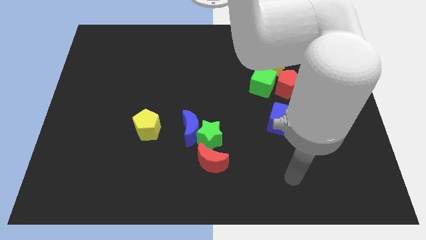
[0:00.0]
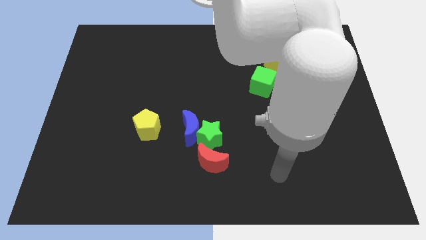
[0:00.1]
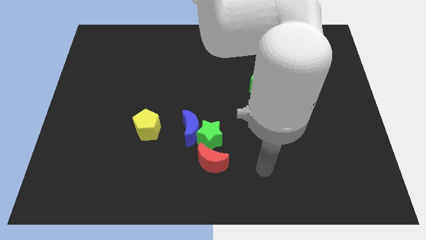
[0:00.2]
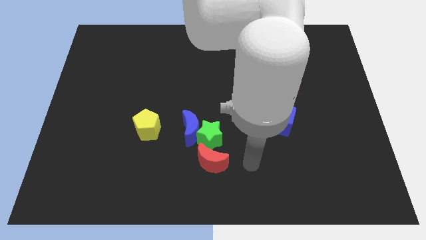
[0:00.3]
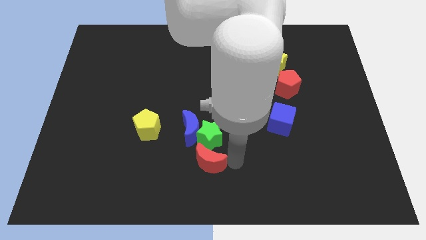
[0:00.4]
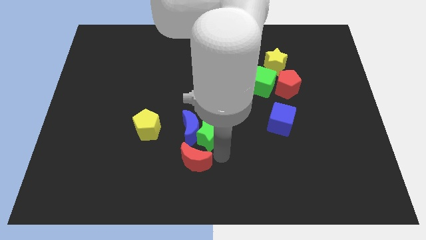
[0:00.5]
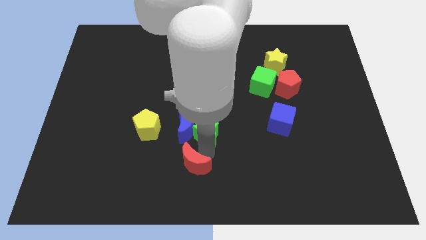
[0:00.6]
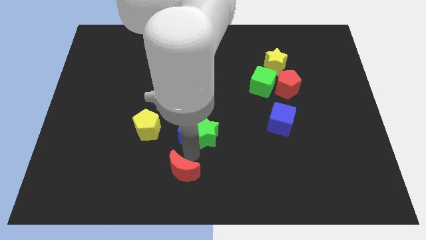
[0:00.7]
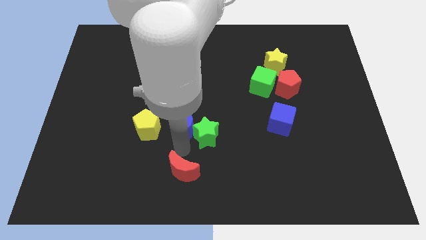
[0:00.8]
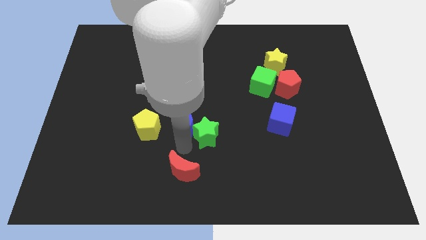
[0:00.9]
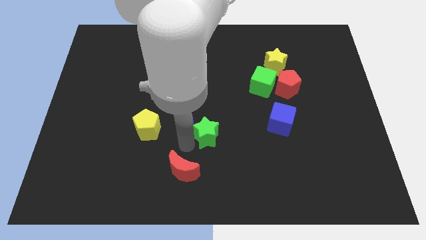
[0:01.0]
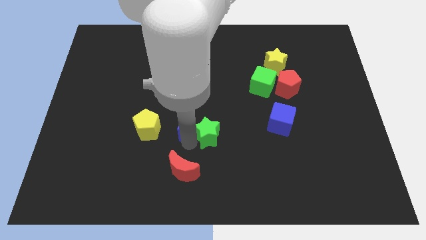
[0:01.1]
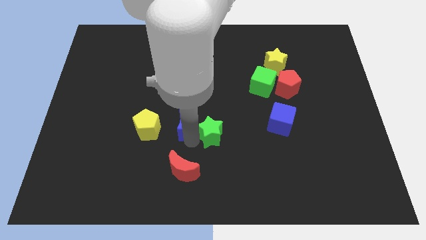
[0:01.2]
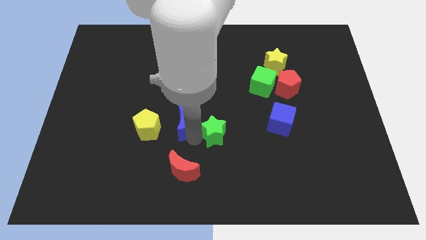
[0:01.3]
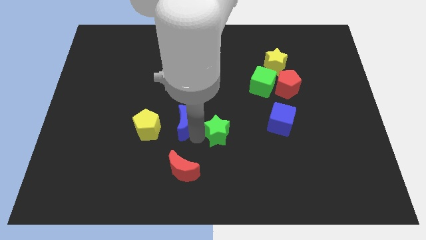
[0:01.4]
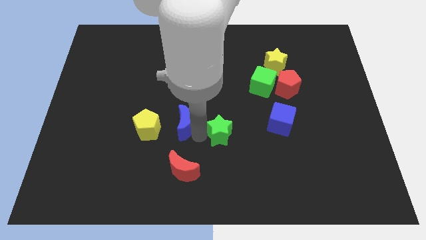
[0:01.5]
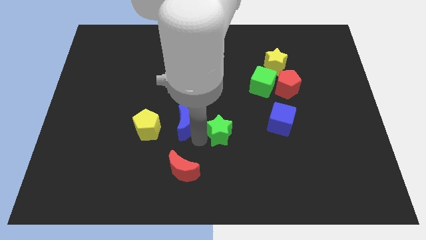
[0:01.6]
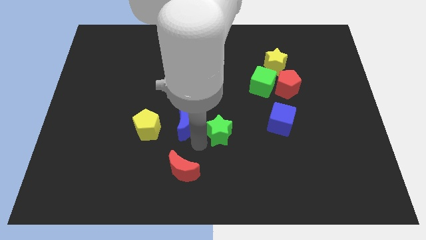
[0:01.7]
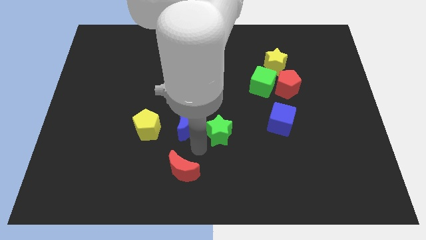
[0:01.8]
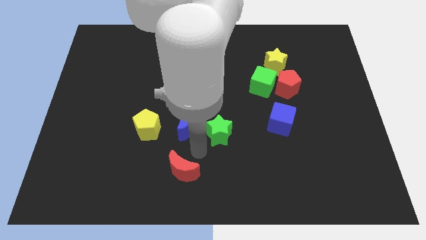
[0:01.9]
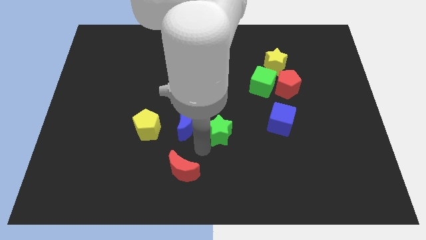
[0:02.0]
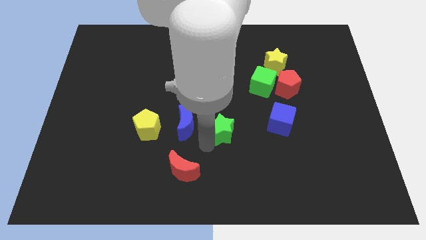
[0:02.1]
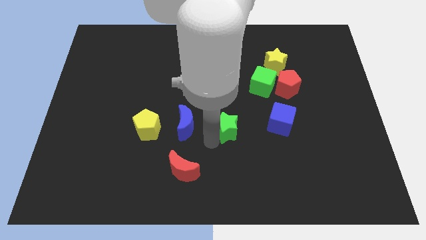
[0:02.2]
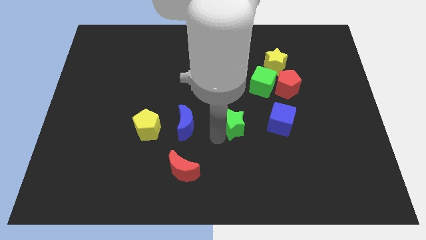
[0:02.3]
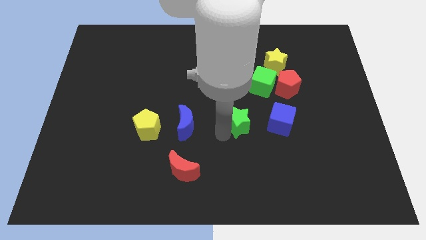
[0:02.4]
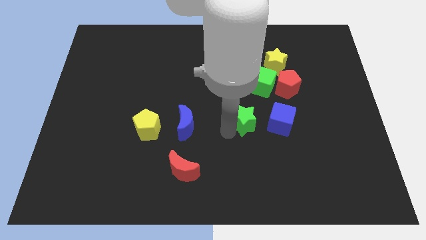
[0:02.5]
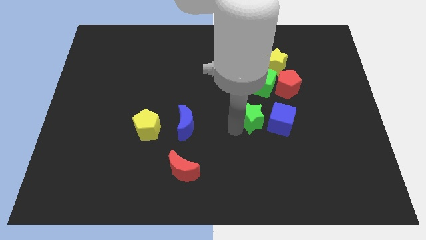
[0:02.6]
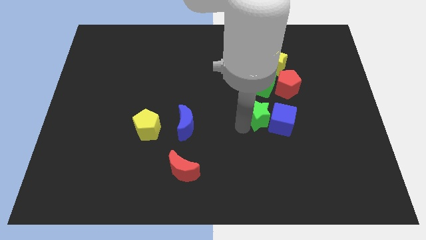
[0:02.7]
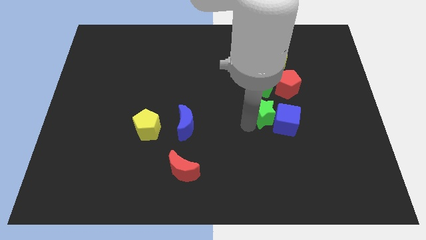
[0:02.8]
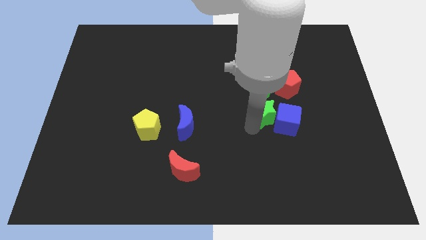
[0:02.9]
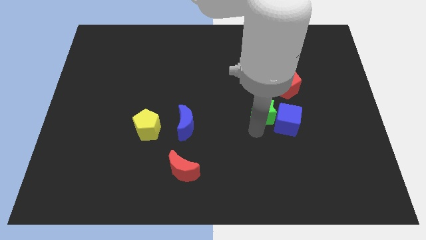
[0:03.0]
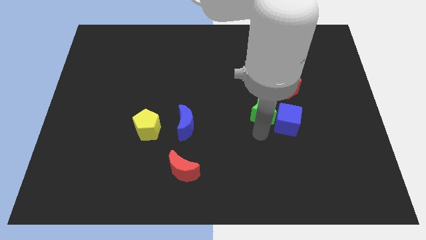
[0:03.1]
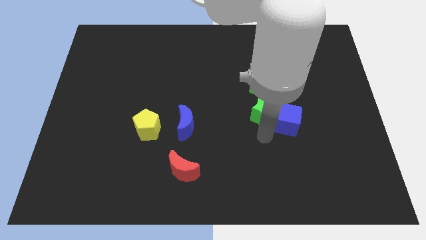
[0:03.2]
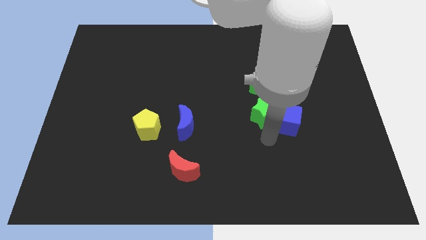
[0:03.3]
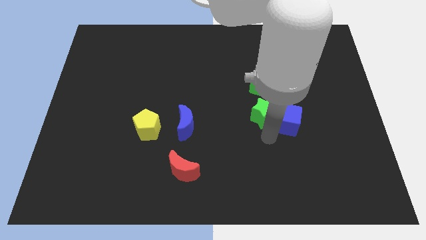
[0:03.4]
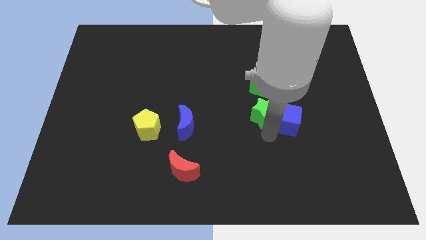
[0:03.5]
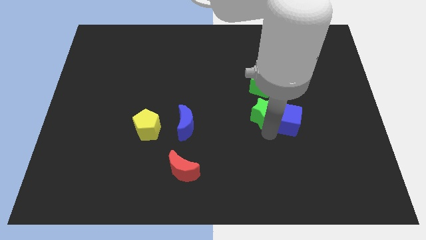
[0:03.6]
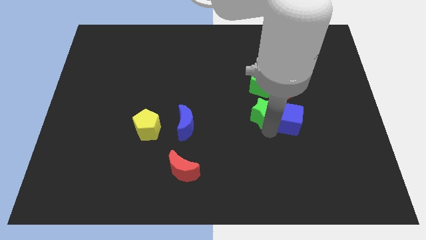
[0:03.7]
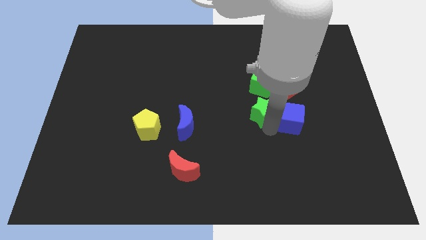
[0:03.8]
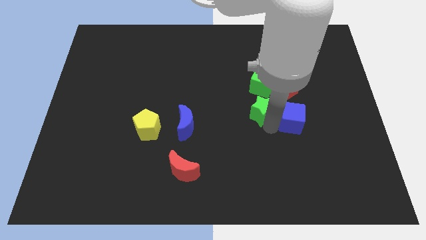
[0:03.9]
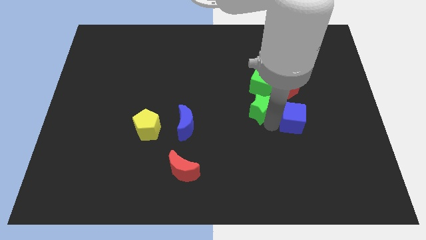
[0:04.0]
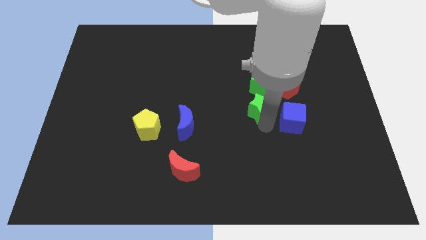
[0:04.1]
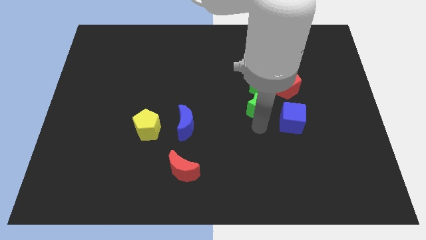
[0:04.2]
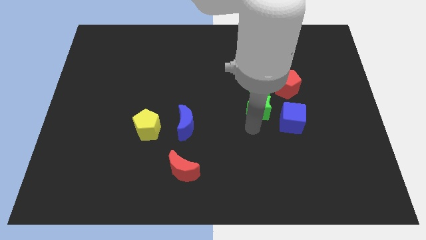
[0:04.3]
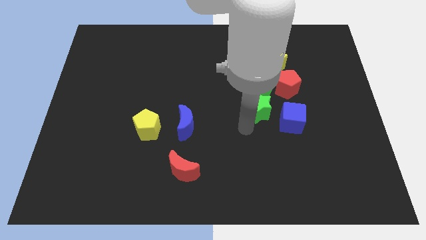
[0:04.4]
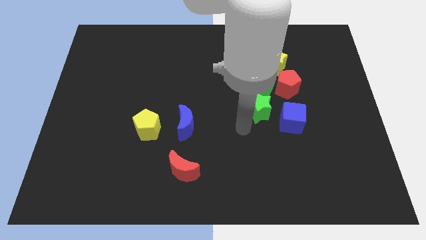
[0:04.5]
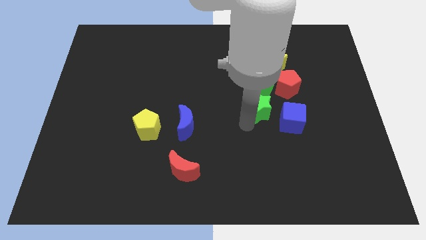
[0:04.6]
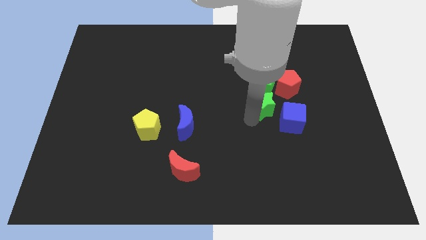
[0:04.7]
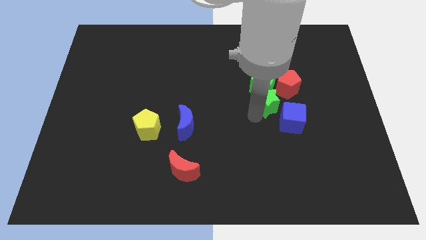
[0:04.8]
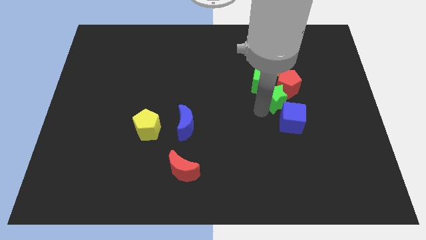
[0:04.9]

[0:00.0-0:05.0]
push the green star close to the red pentagon

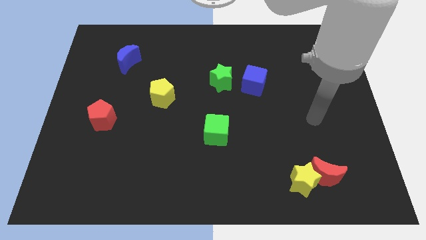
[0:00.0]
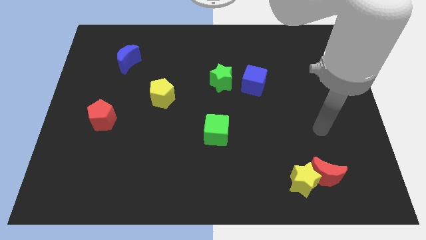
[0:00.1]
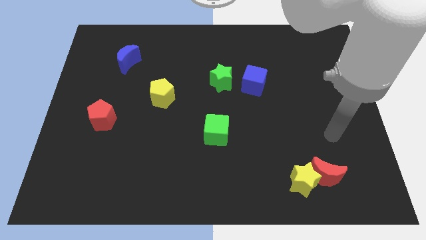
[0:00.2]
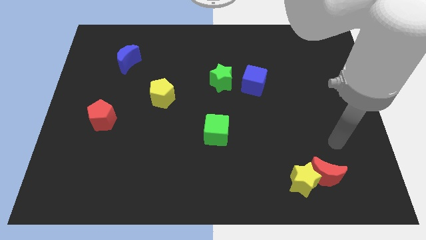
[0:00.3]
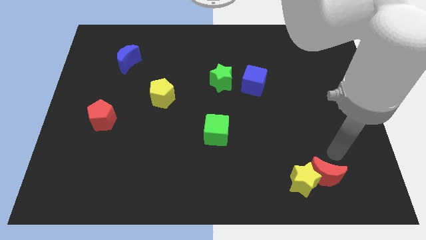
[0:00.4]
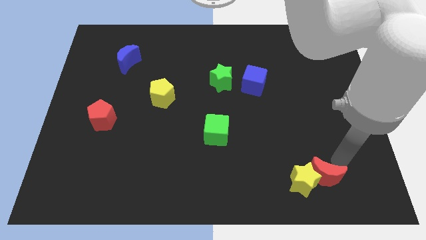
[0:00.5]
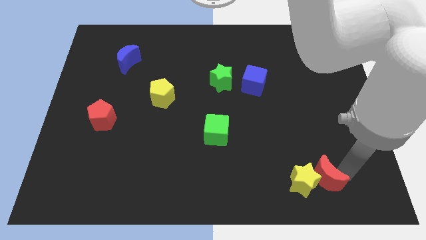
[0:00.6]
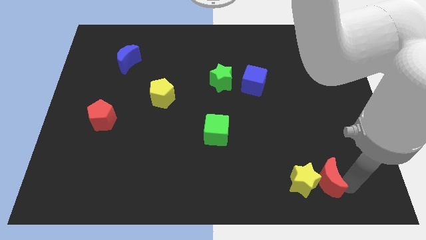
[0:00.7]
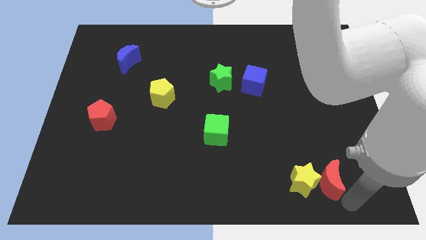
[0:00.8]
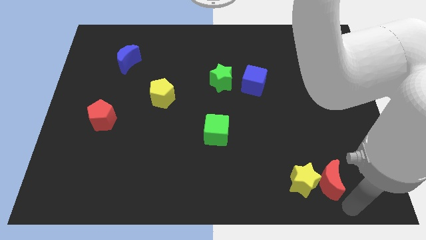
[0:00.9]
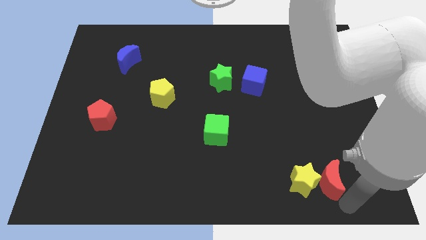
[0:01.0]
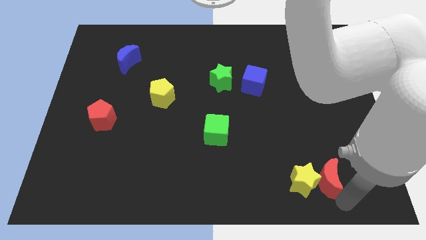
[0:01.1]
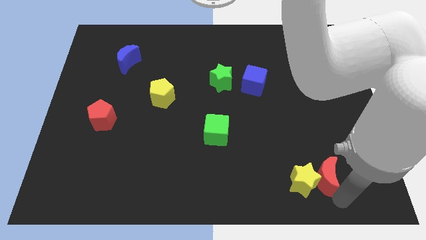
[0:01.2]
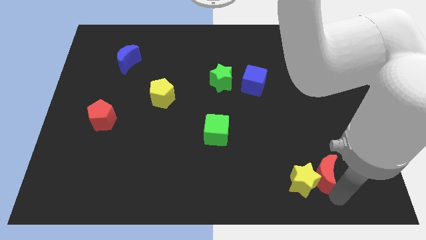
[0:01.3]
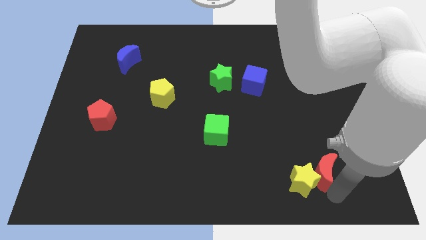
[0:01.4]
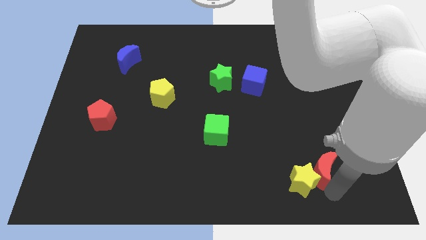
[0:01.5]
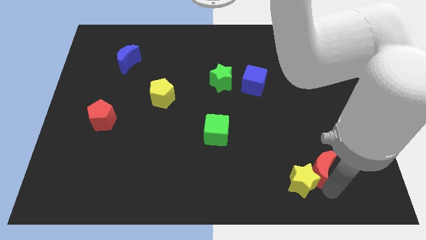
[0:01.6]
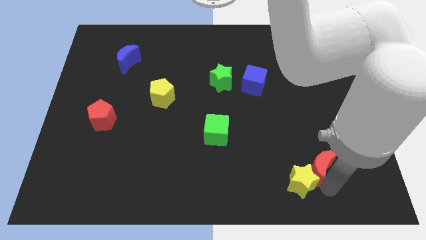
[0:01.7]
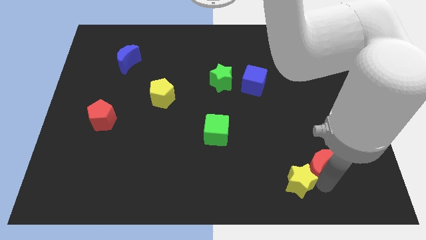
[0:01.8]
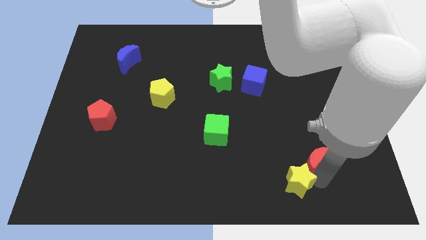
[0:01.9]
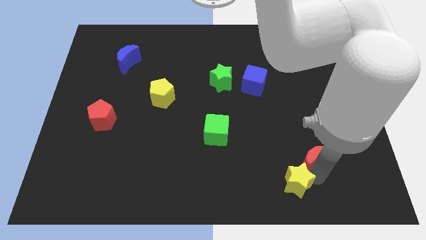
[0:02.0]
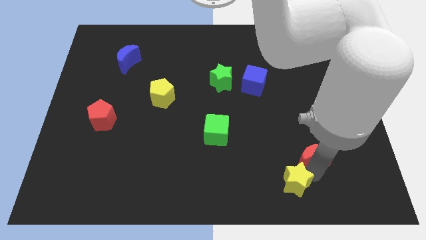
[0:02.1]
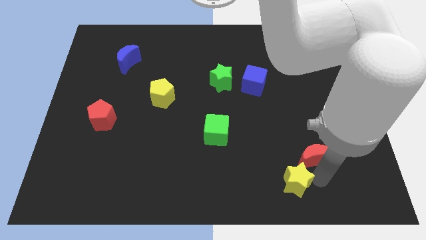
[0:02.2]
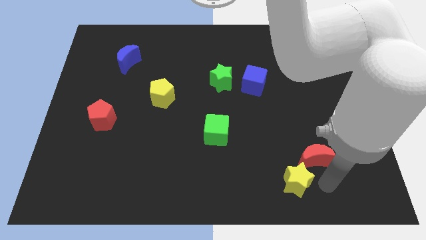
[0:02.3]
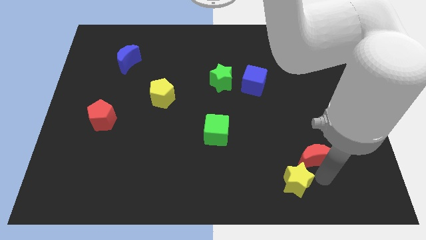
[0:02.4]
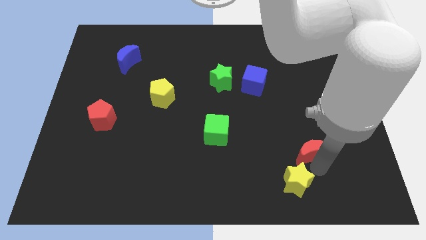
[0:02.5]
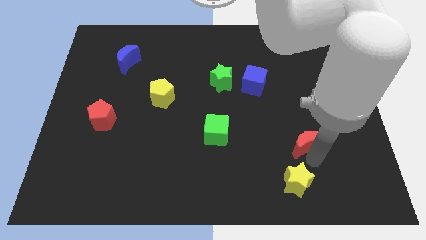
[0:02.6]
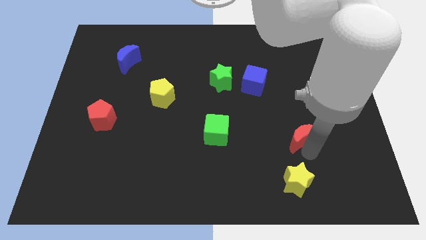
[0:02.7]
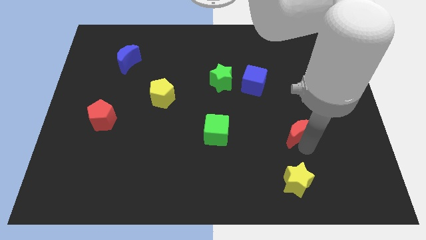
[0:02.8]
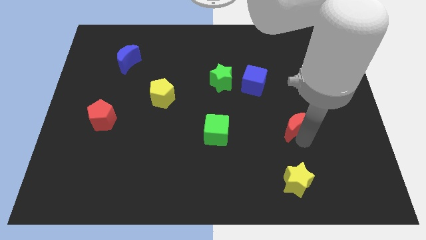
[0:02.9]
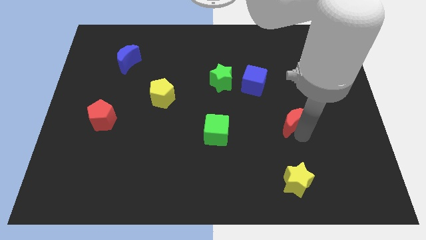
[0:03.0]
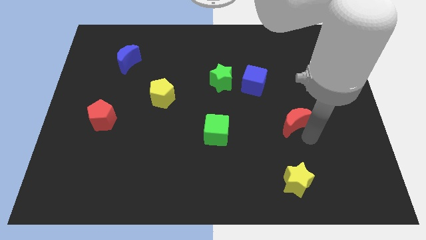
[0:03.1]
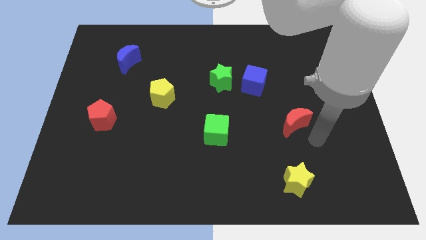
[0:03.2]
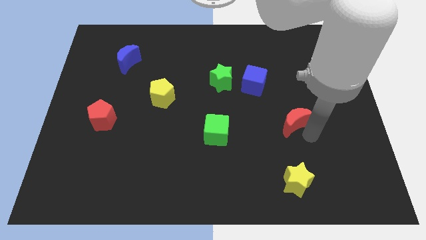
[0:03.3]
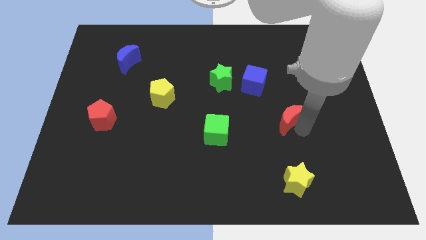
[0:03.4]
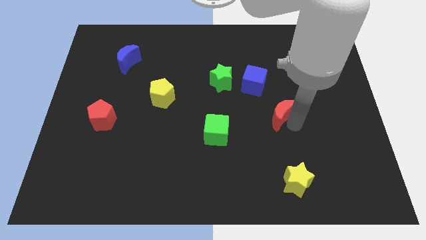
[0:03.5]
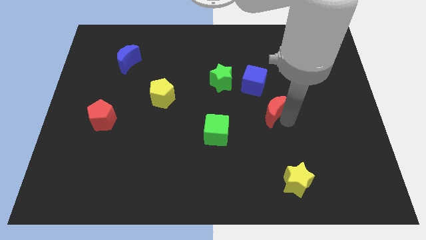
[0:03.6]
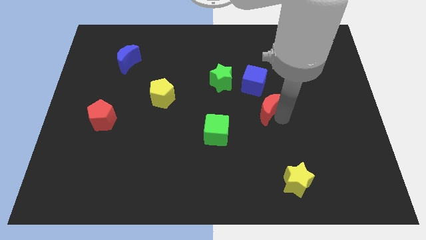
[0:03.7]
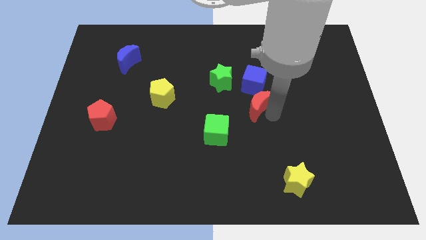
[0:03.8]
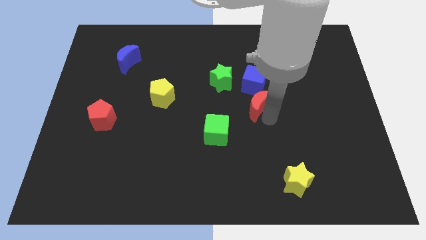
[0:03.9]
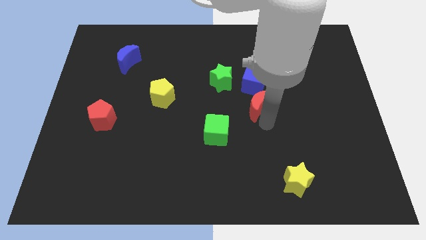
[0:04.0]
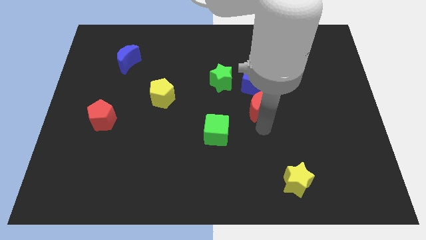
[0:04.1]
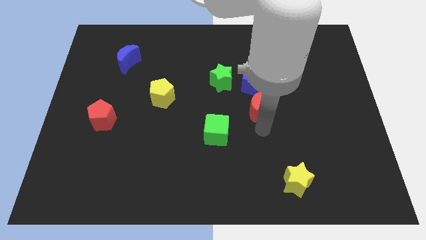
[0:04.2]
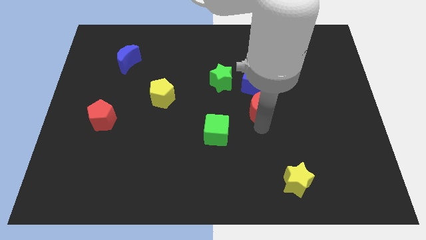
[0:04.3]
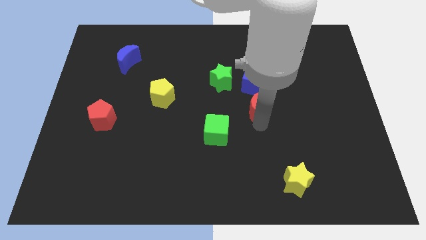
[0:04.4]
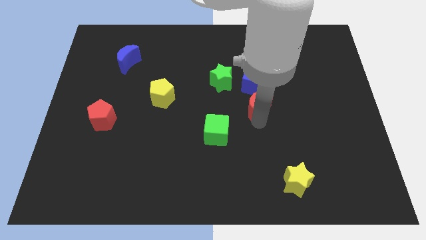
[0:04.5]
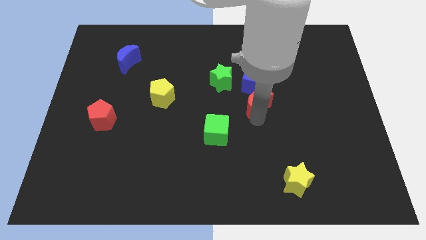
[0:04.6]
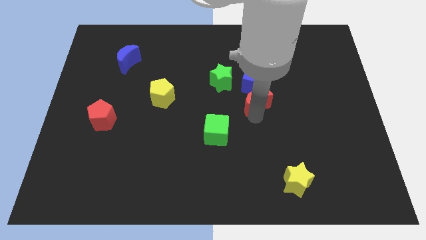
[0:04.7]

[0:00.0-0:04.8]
put the red moon towards the blue cube
